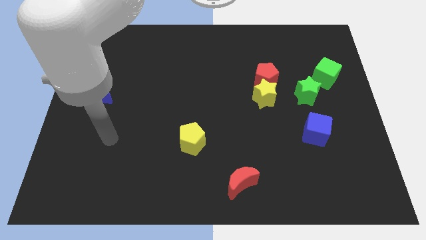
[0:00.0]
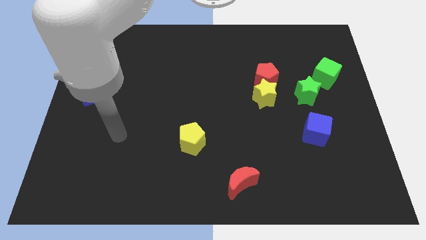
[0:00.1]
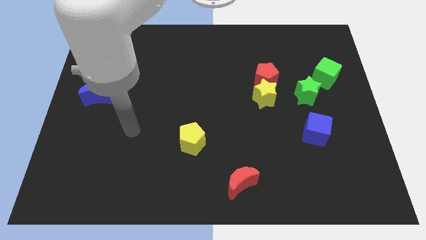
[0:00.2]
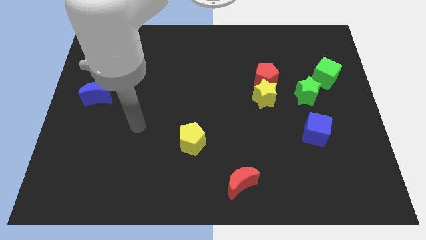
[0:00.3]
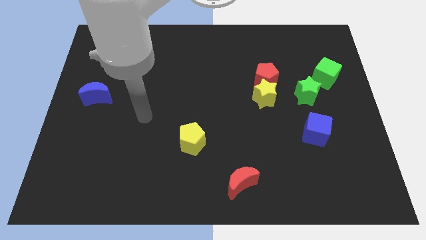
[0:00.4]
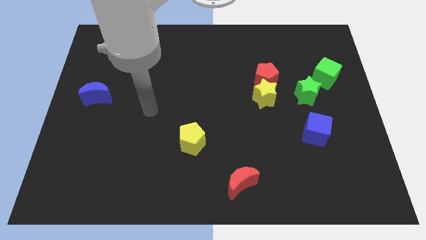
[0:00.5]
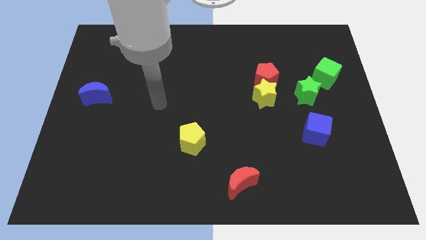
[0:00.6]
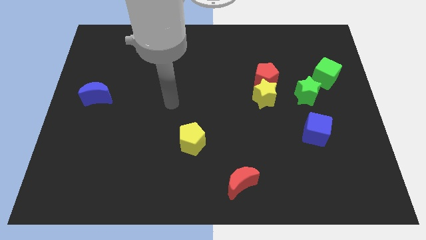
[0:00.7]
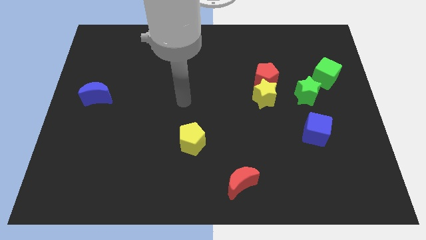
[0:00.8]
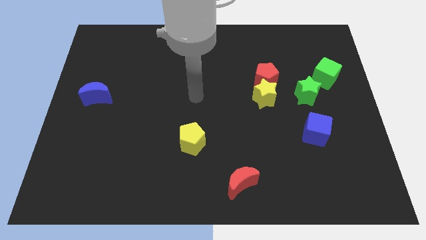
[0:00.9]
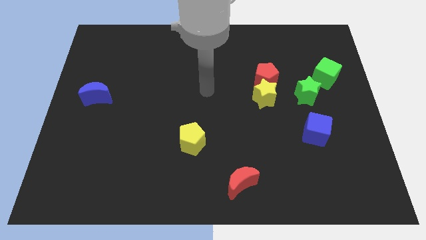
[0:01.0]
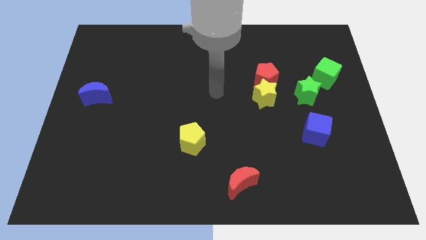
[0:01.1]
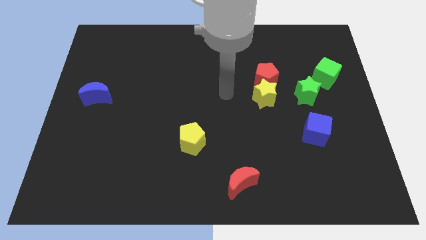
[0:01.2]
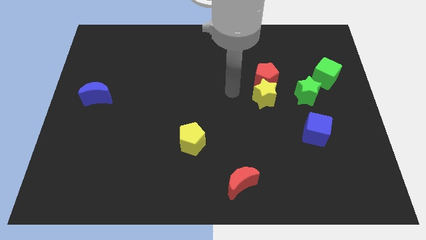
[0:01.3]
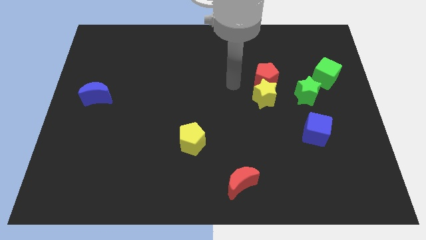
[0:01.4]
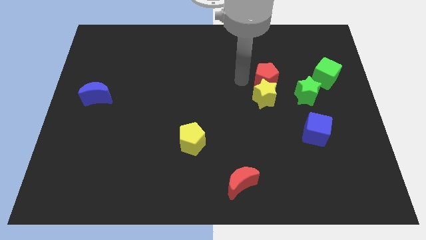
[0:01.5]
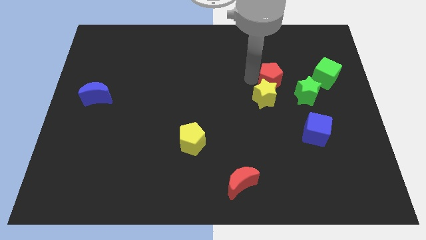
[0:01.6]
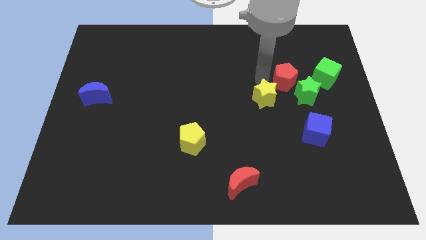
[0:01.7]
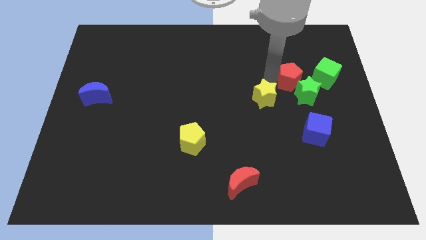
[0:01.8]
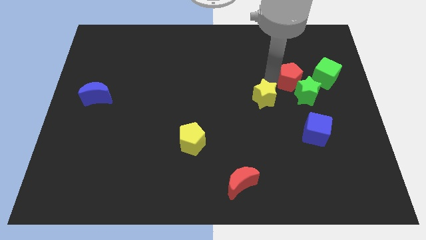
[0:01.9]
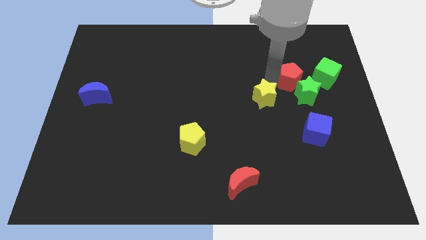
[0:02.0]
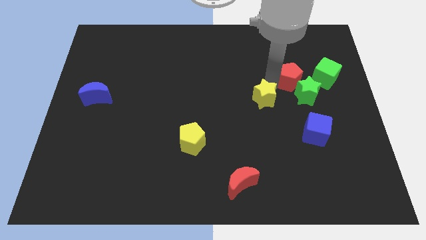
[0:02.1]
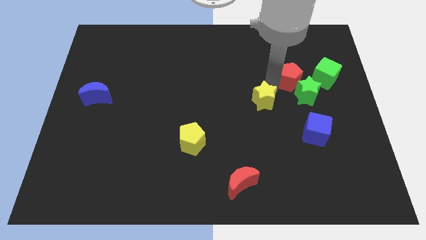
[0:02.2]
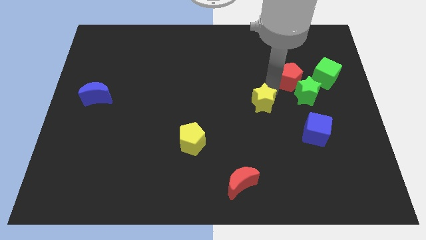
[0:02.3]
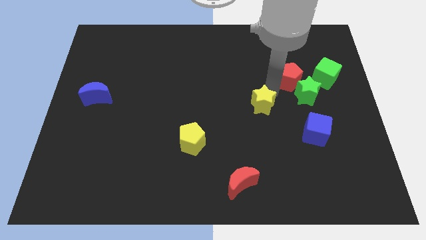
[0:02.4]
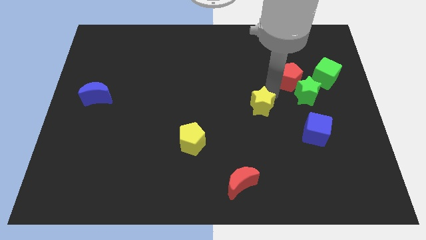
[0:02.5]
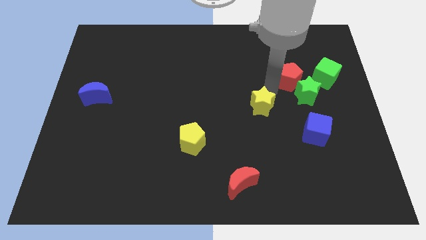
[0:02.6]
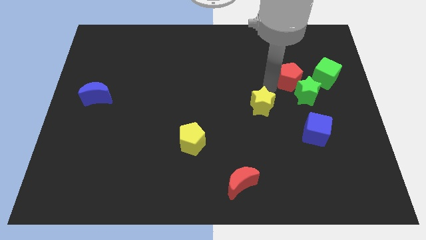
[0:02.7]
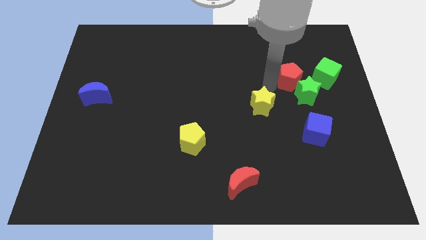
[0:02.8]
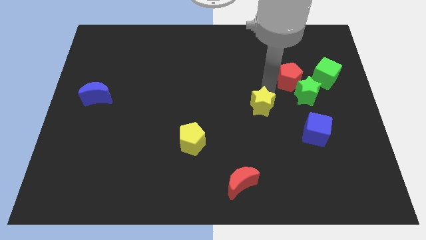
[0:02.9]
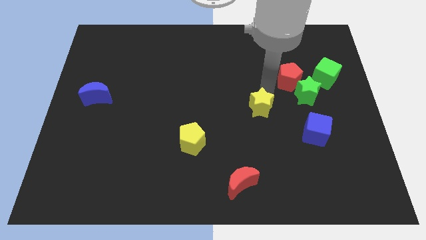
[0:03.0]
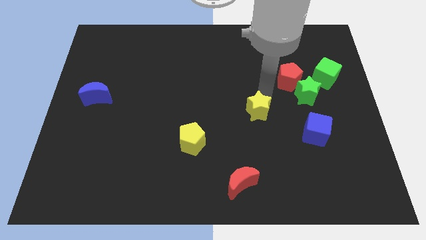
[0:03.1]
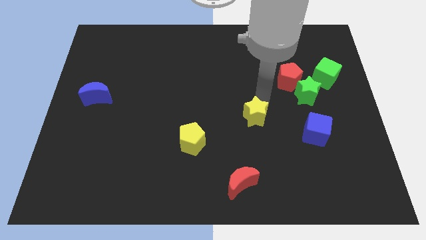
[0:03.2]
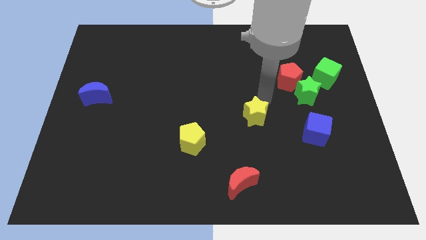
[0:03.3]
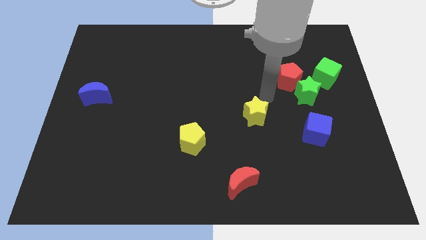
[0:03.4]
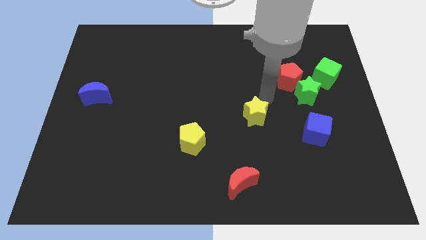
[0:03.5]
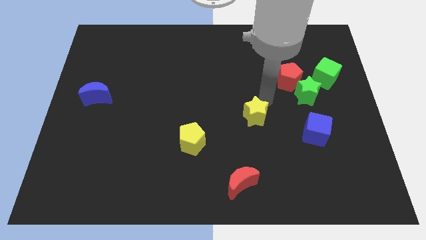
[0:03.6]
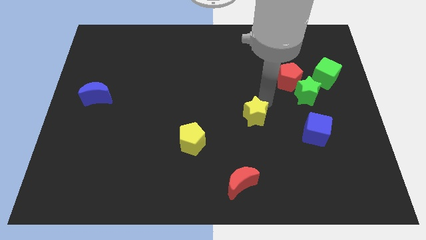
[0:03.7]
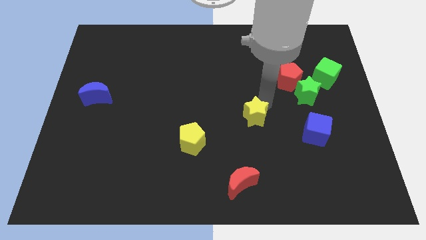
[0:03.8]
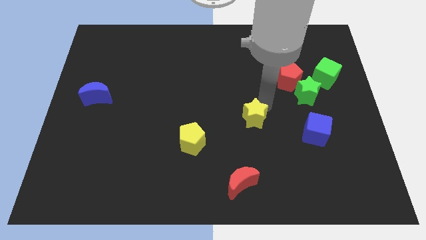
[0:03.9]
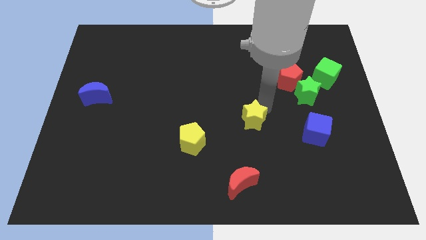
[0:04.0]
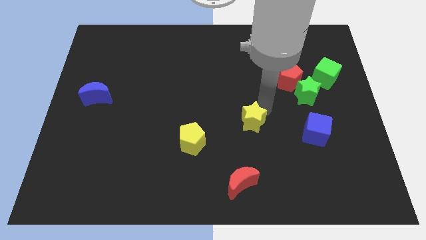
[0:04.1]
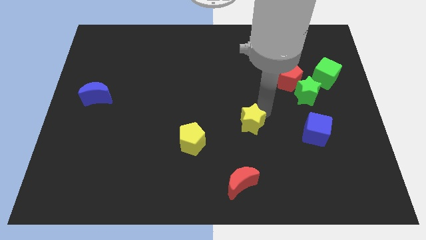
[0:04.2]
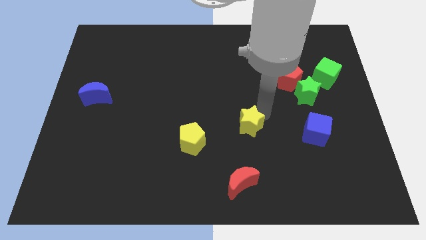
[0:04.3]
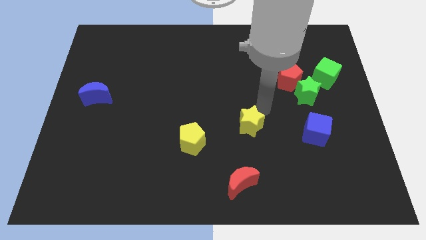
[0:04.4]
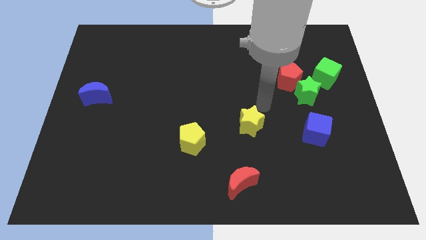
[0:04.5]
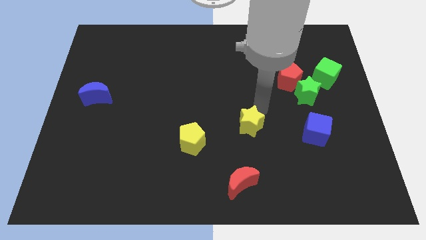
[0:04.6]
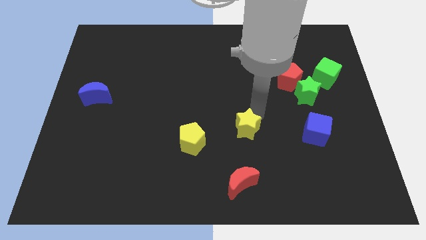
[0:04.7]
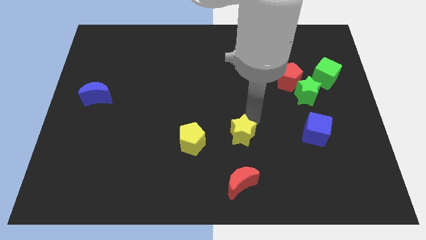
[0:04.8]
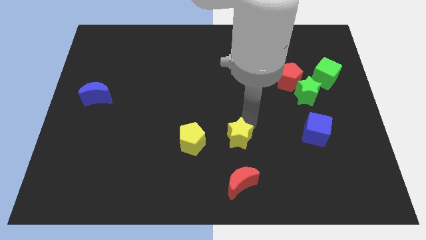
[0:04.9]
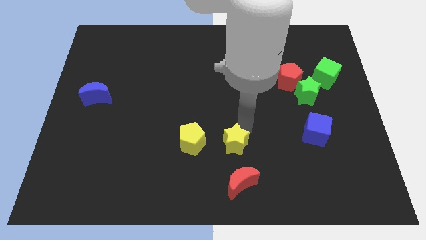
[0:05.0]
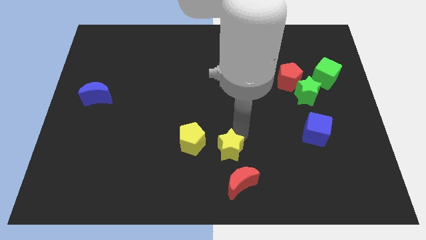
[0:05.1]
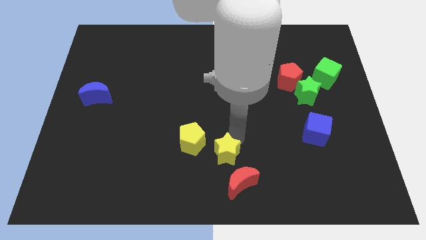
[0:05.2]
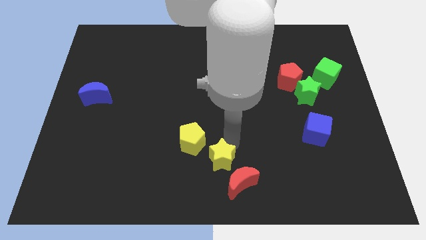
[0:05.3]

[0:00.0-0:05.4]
push the yellow star to the bottom

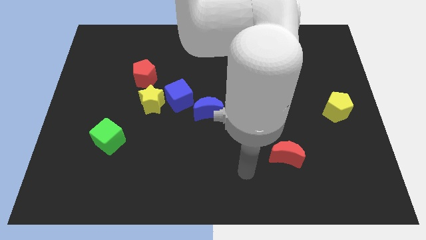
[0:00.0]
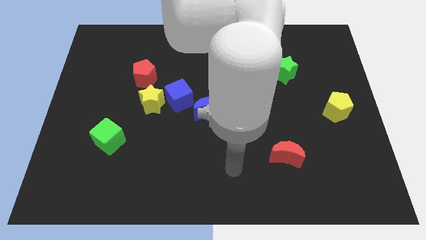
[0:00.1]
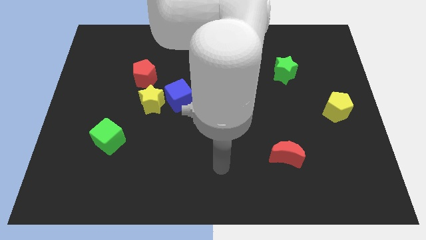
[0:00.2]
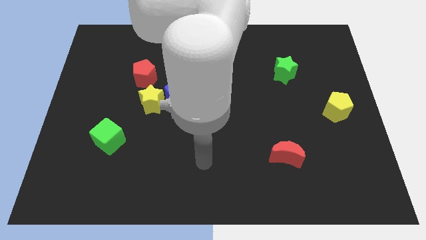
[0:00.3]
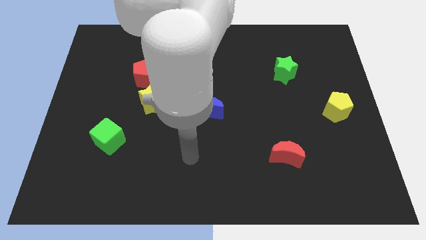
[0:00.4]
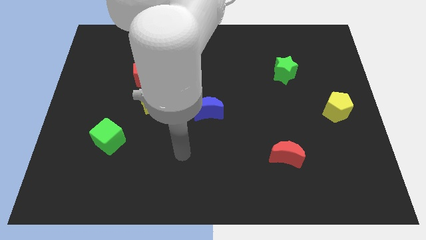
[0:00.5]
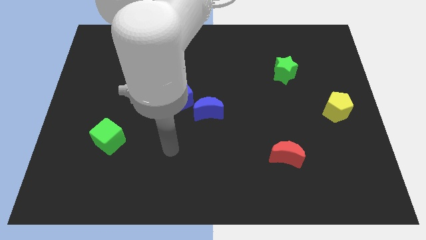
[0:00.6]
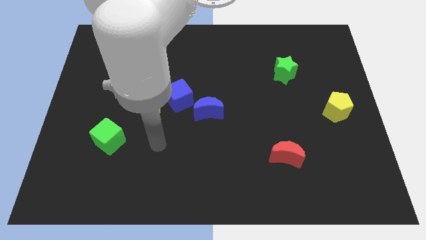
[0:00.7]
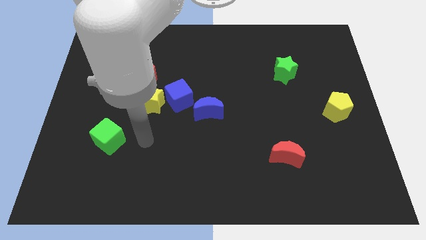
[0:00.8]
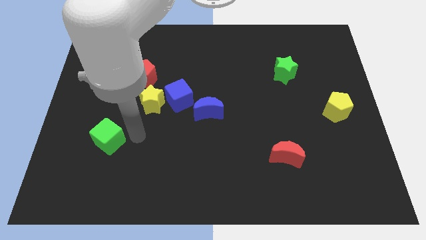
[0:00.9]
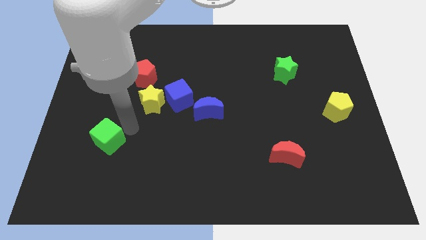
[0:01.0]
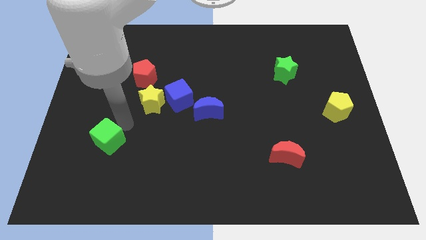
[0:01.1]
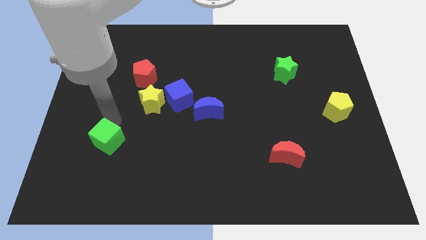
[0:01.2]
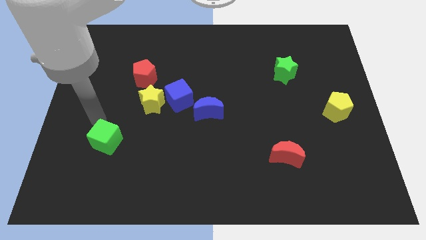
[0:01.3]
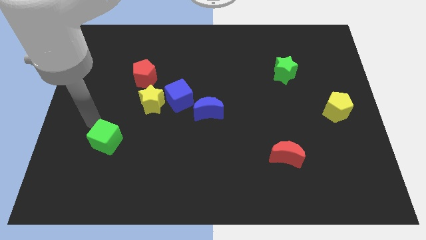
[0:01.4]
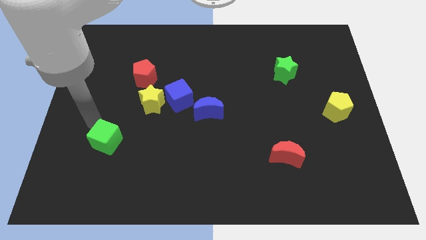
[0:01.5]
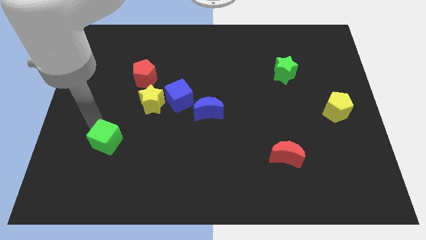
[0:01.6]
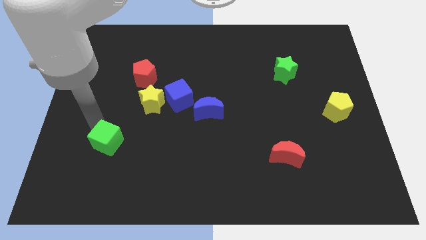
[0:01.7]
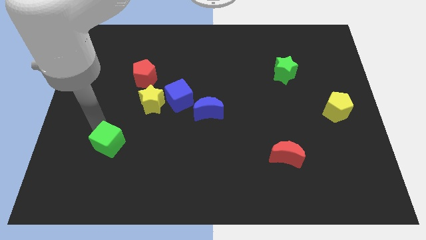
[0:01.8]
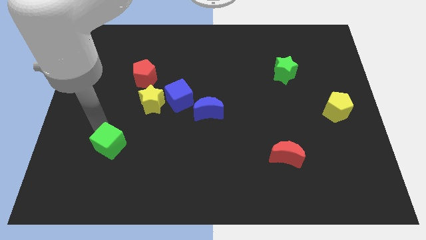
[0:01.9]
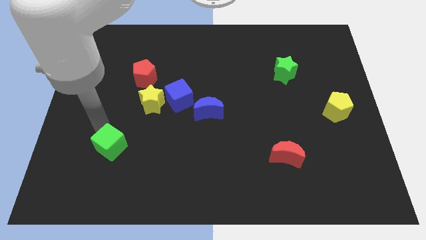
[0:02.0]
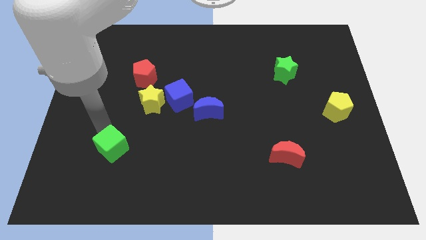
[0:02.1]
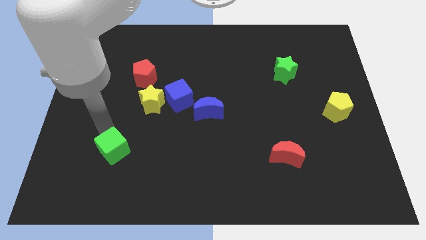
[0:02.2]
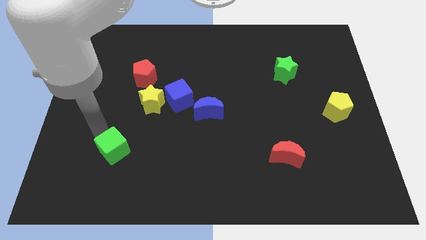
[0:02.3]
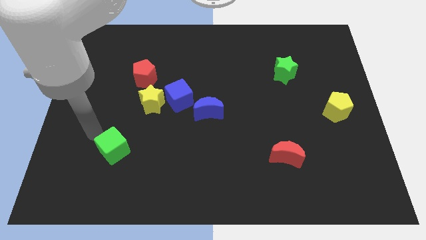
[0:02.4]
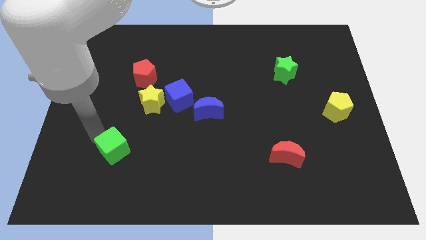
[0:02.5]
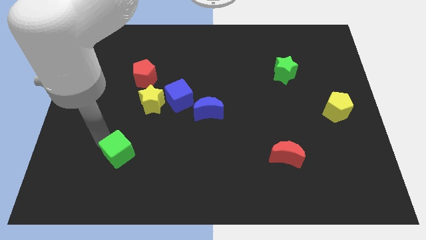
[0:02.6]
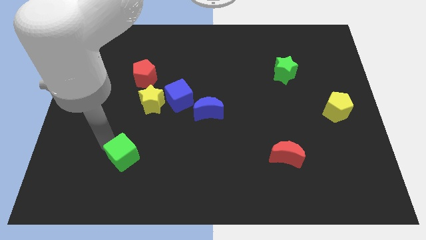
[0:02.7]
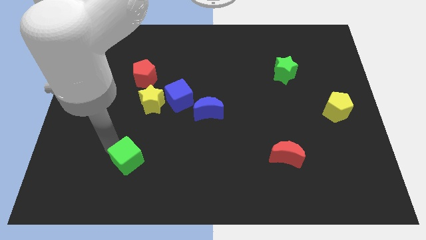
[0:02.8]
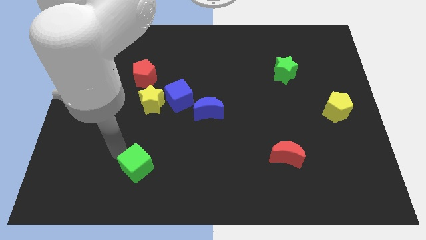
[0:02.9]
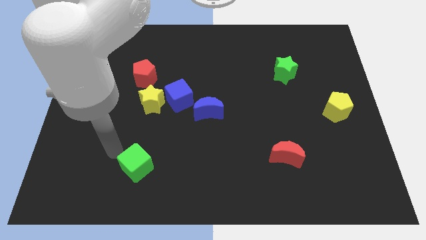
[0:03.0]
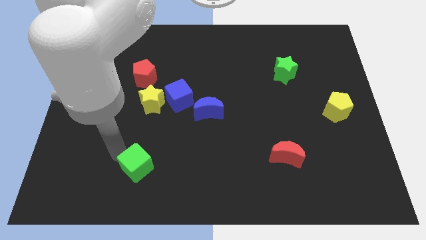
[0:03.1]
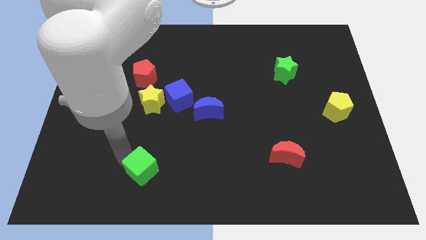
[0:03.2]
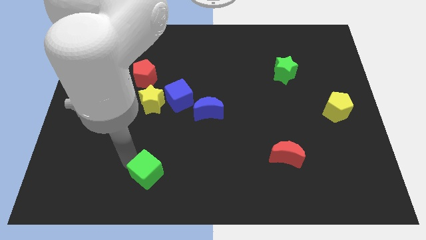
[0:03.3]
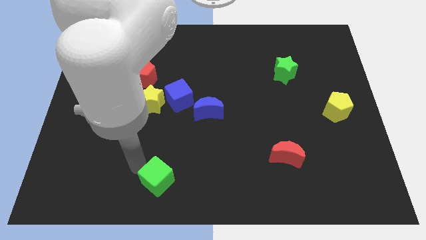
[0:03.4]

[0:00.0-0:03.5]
put the green cube to the bottom
